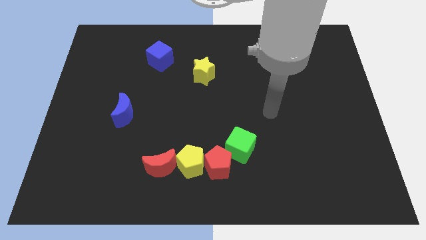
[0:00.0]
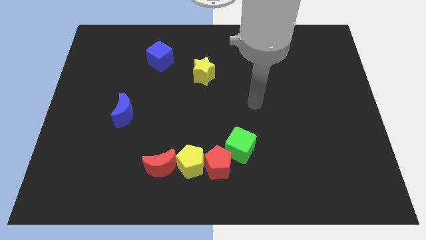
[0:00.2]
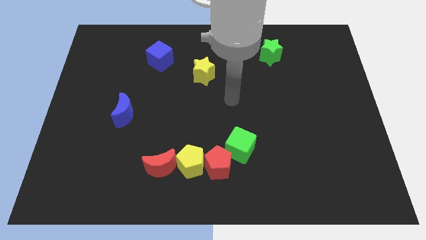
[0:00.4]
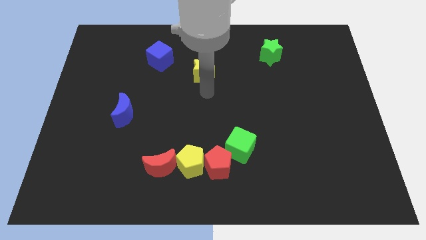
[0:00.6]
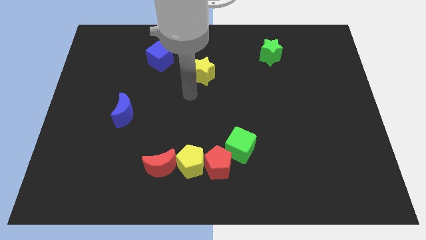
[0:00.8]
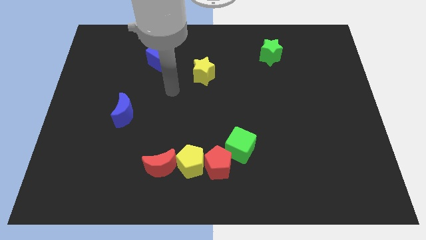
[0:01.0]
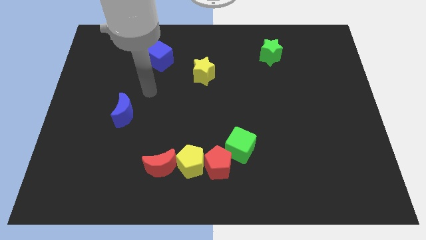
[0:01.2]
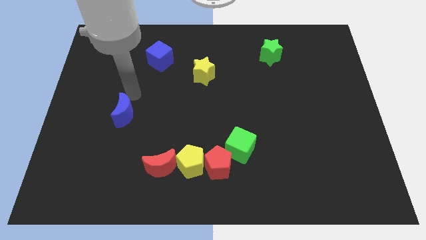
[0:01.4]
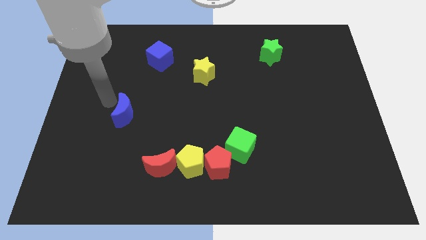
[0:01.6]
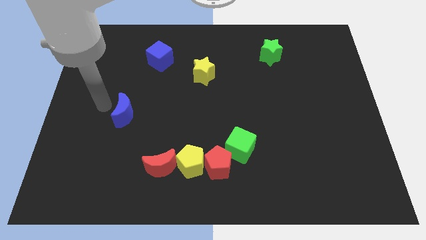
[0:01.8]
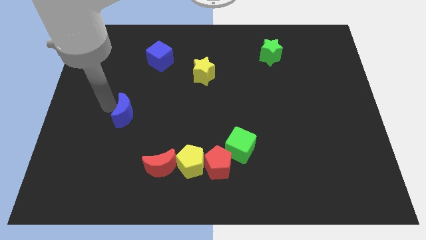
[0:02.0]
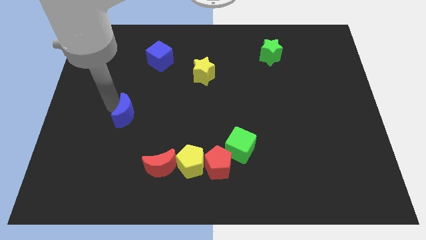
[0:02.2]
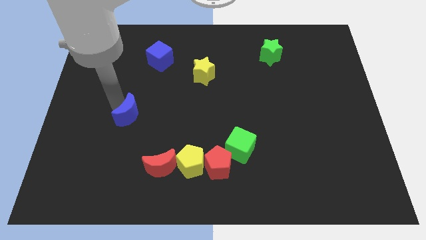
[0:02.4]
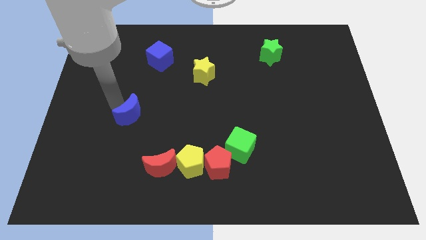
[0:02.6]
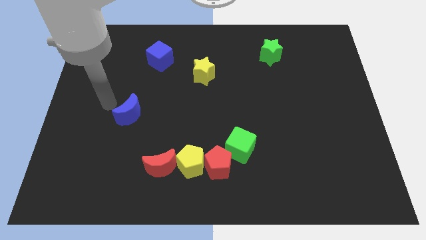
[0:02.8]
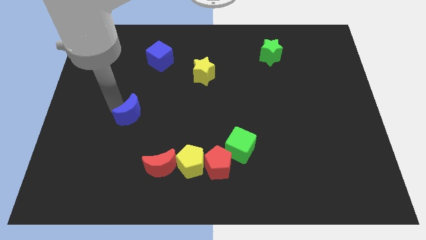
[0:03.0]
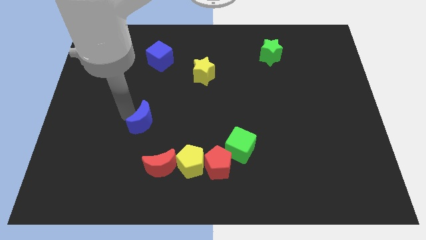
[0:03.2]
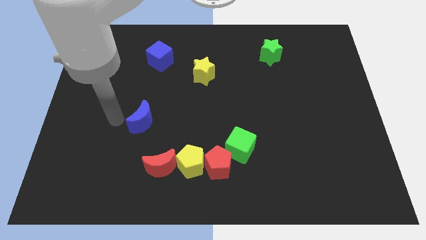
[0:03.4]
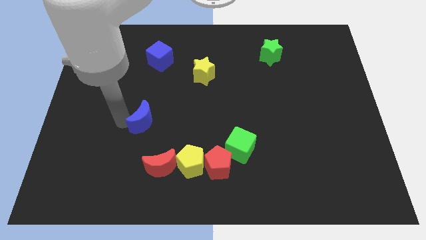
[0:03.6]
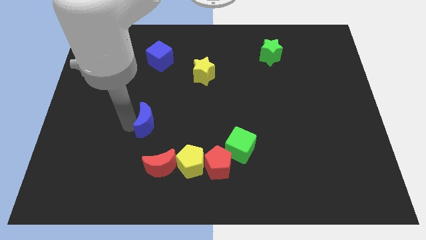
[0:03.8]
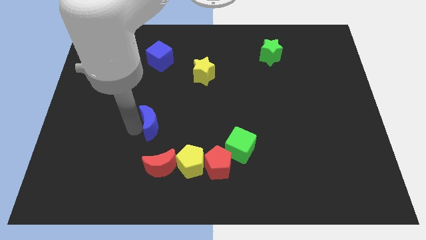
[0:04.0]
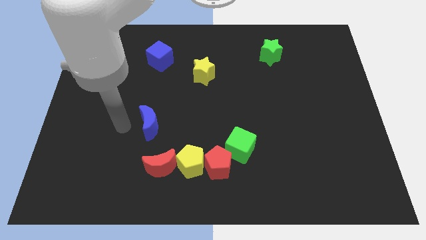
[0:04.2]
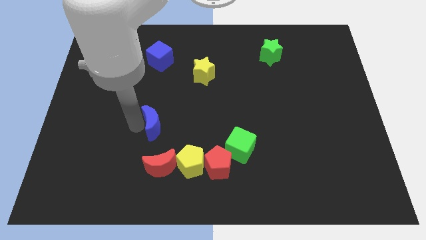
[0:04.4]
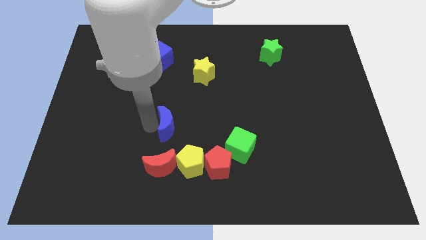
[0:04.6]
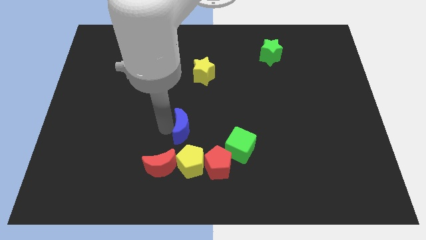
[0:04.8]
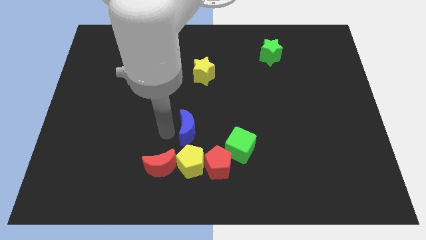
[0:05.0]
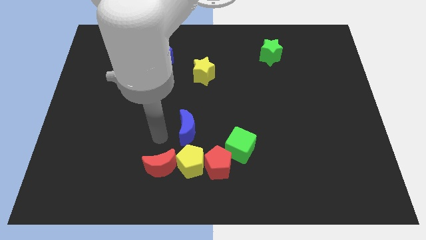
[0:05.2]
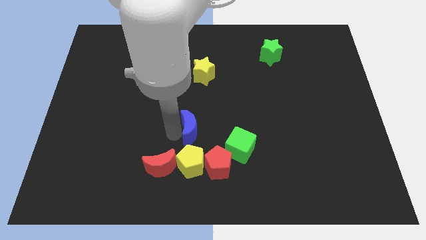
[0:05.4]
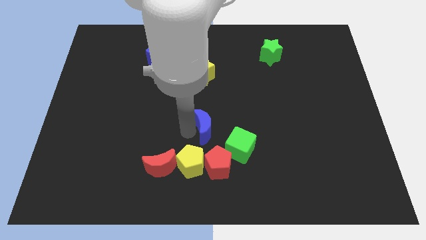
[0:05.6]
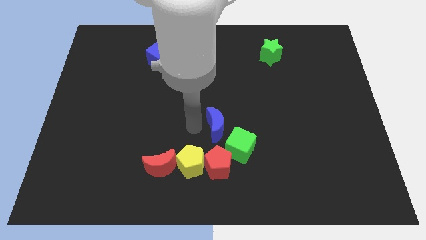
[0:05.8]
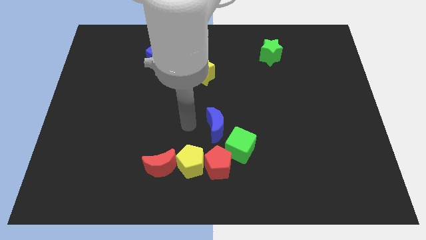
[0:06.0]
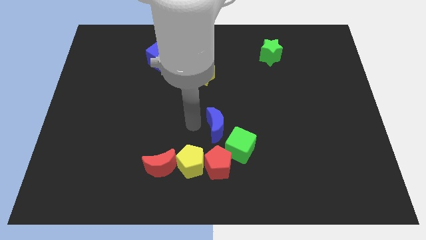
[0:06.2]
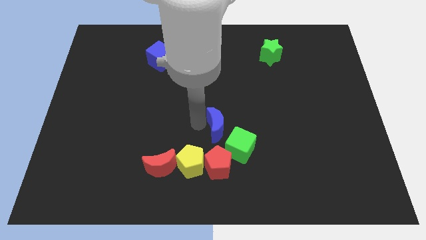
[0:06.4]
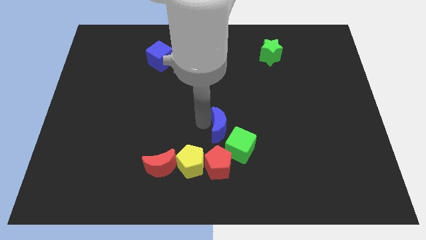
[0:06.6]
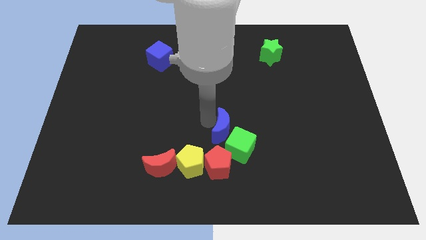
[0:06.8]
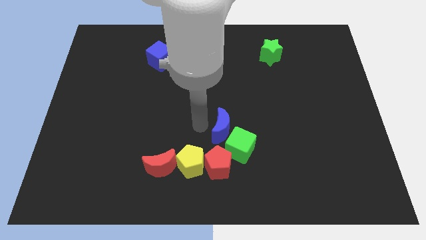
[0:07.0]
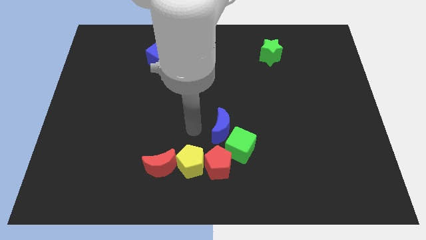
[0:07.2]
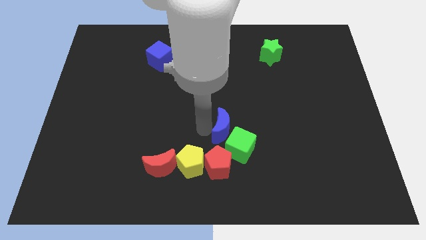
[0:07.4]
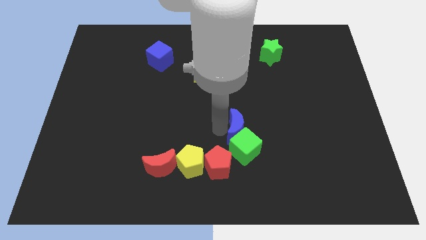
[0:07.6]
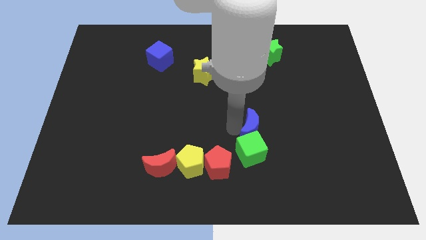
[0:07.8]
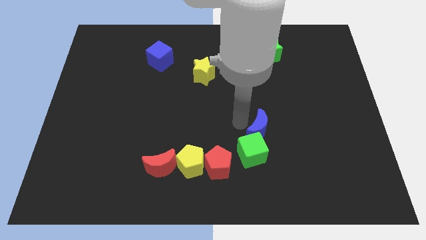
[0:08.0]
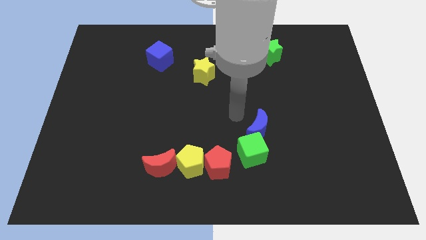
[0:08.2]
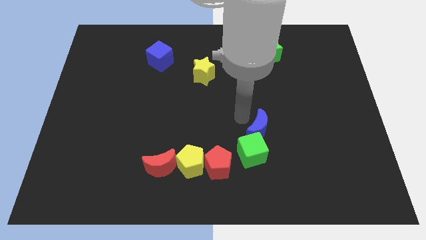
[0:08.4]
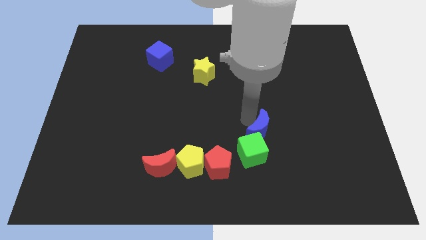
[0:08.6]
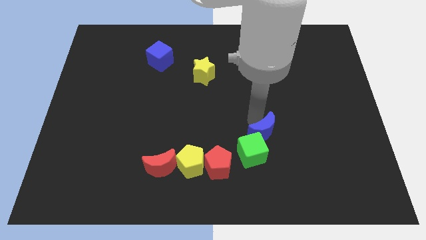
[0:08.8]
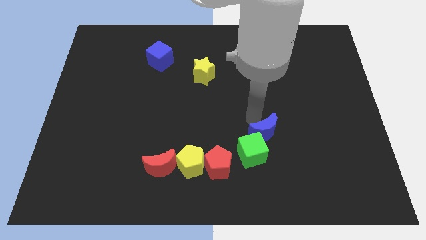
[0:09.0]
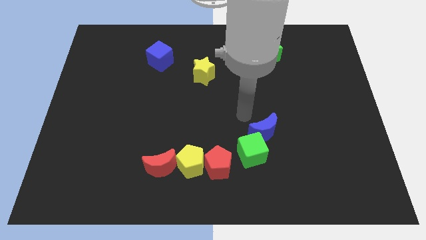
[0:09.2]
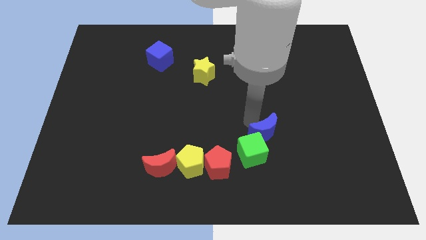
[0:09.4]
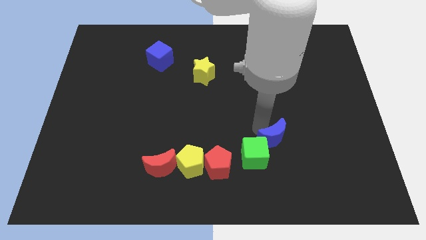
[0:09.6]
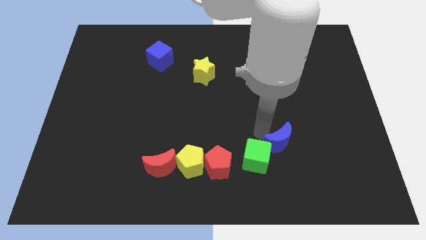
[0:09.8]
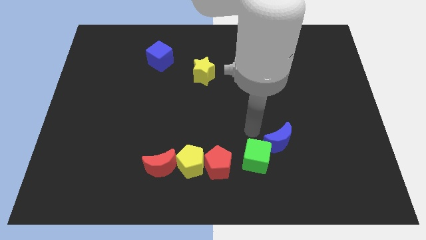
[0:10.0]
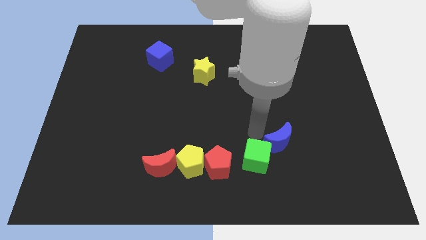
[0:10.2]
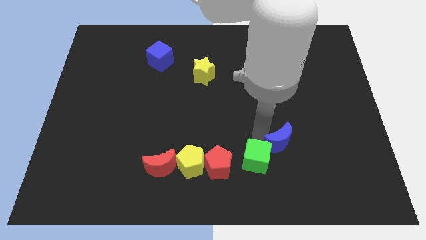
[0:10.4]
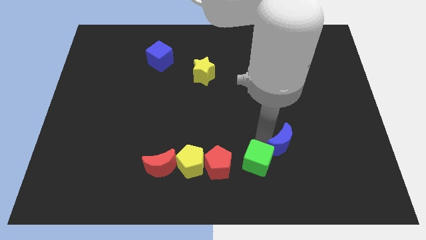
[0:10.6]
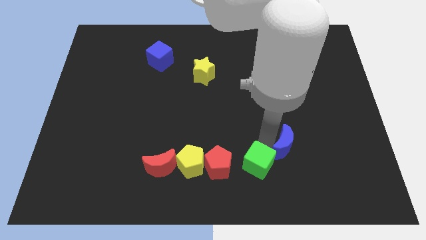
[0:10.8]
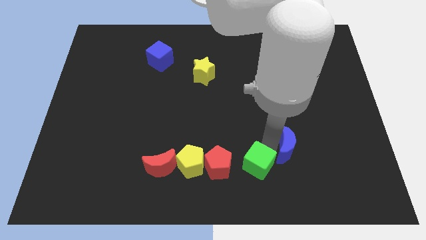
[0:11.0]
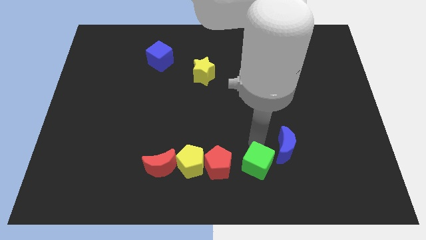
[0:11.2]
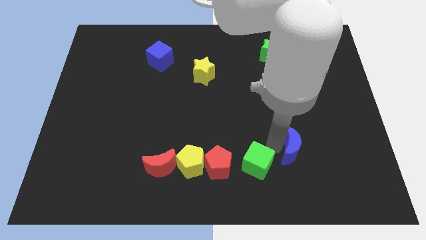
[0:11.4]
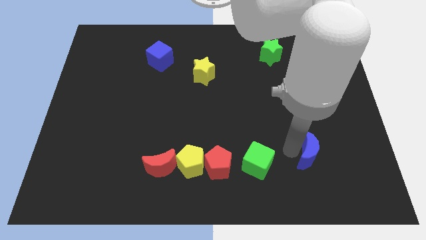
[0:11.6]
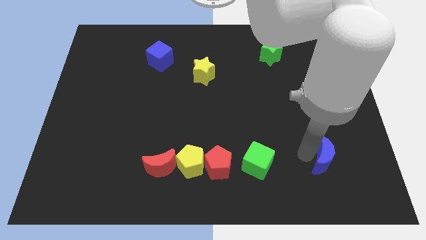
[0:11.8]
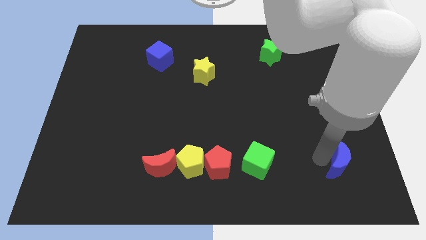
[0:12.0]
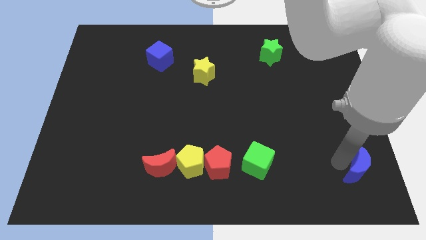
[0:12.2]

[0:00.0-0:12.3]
slide the blue moon to the bottom right of the board

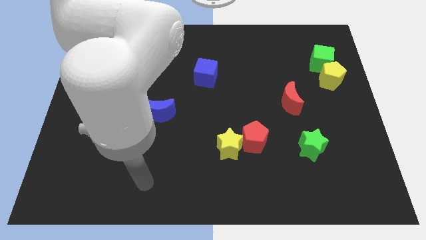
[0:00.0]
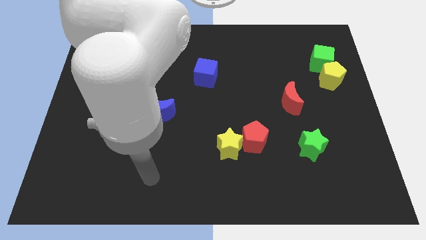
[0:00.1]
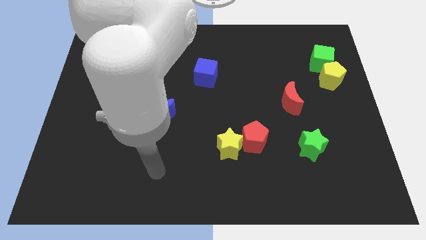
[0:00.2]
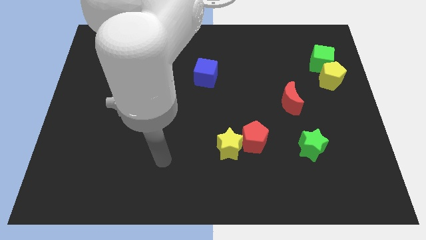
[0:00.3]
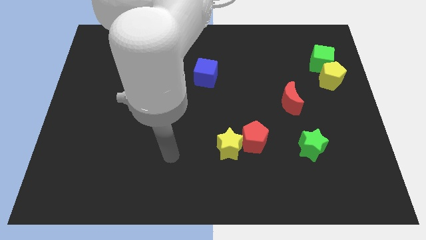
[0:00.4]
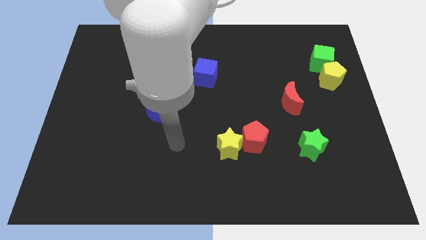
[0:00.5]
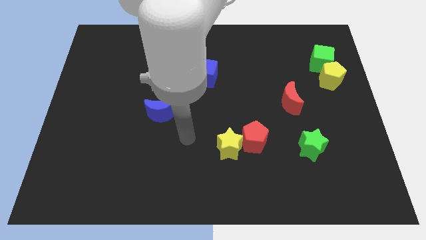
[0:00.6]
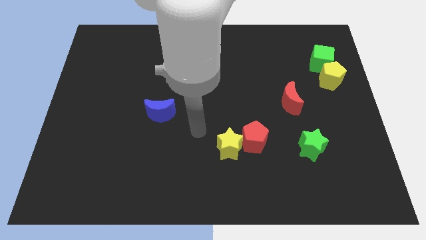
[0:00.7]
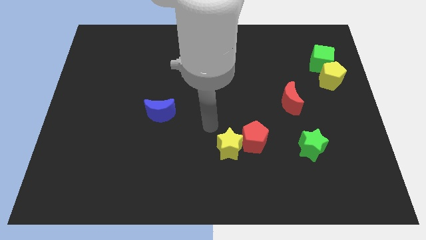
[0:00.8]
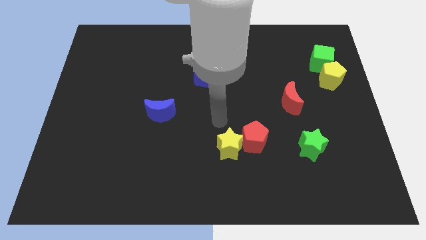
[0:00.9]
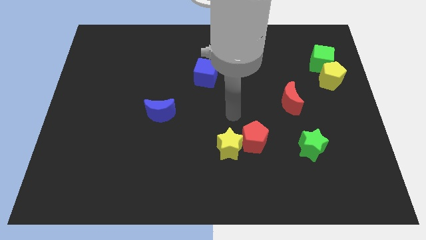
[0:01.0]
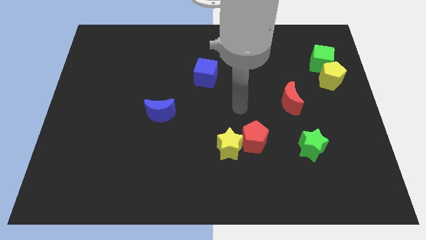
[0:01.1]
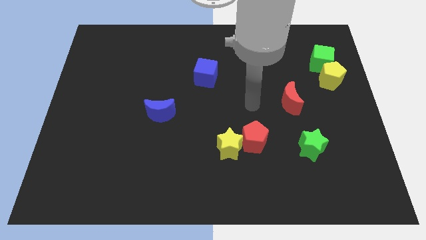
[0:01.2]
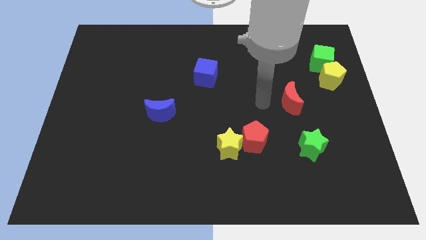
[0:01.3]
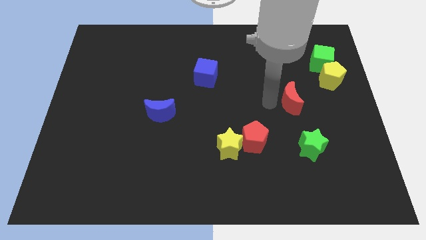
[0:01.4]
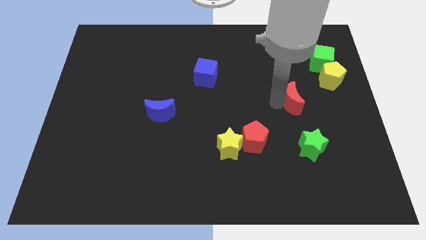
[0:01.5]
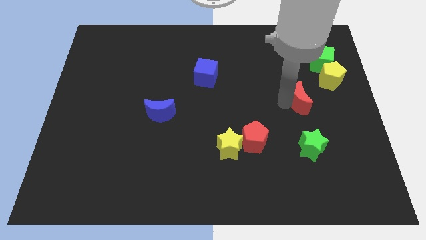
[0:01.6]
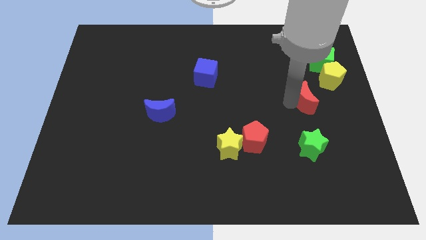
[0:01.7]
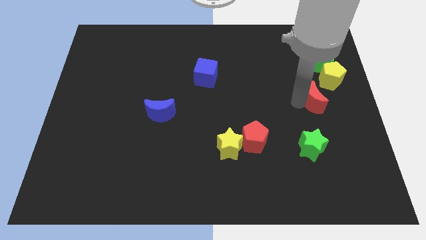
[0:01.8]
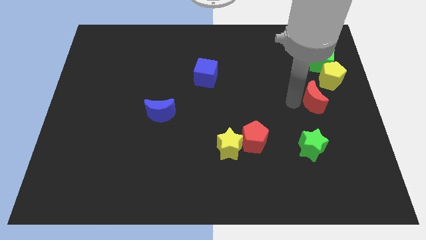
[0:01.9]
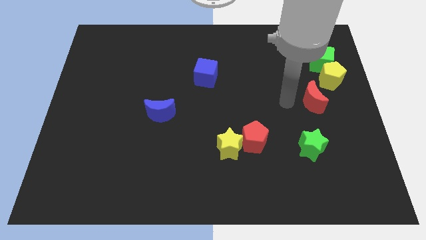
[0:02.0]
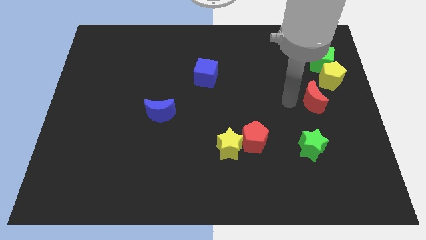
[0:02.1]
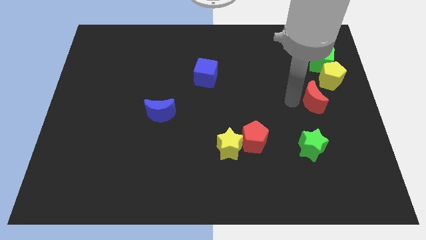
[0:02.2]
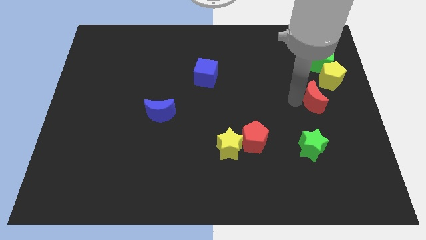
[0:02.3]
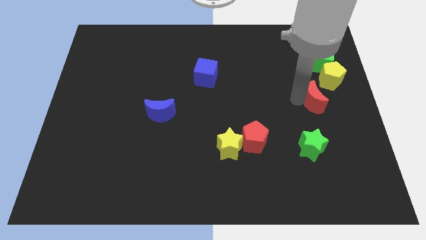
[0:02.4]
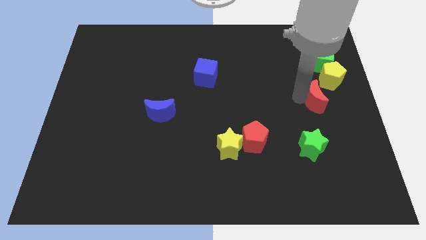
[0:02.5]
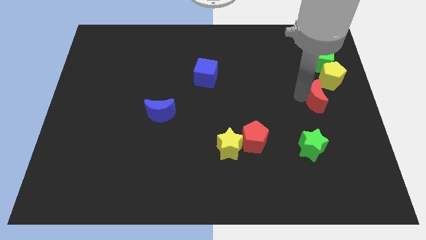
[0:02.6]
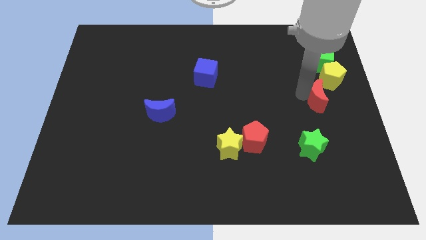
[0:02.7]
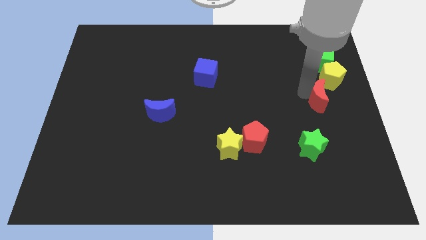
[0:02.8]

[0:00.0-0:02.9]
move the red moon to the center right
